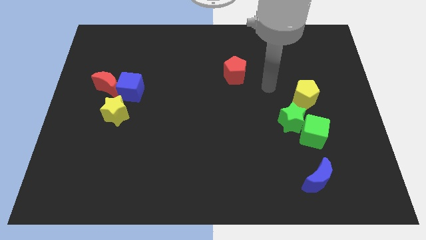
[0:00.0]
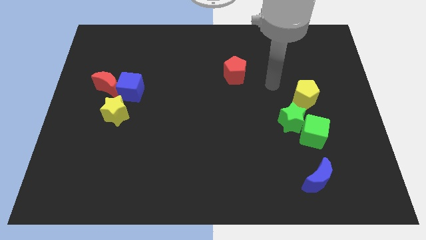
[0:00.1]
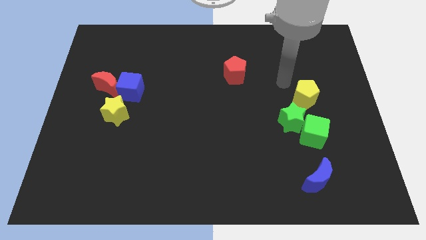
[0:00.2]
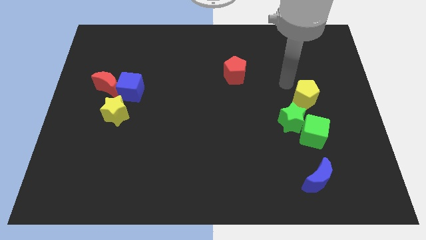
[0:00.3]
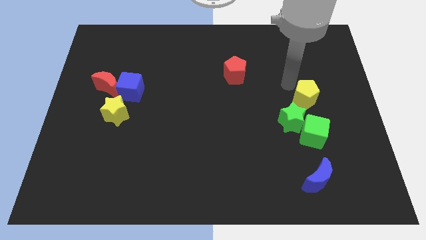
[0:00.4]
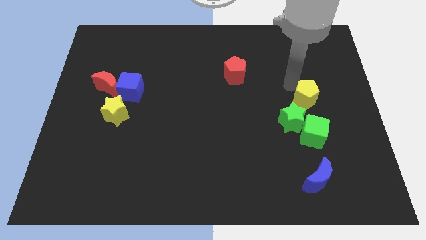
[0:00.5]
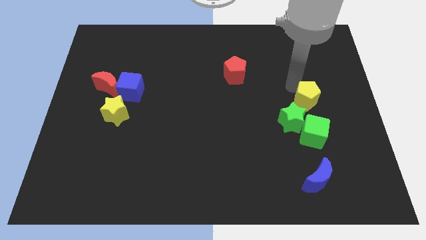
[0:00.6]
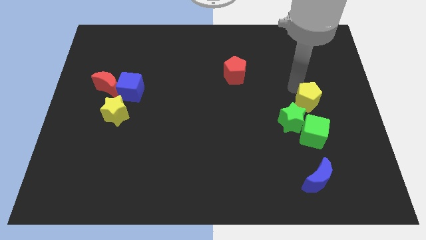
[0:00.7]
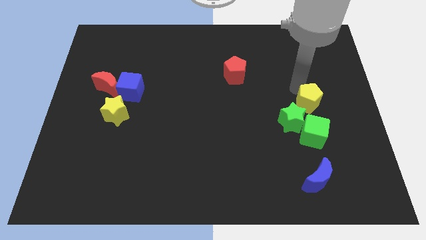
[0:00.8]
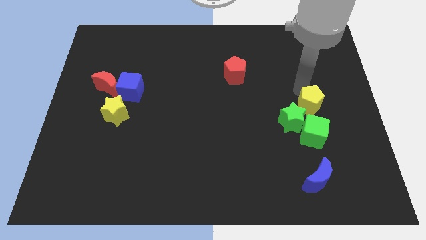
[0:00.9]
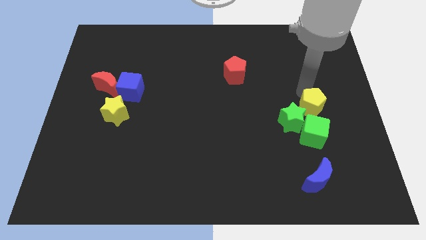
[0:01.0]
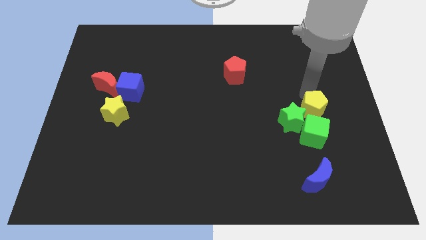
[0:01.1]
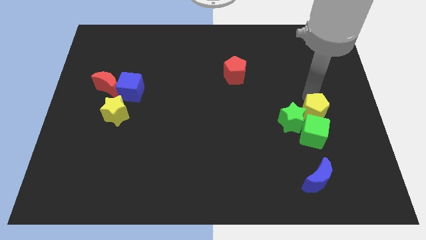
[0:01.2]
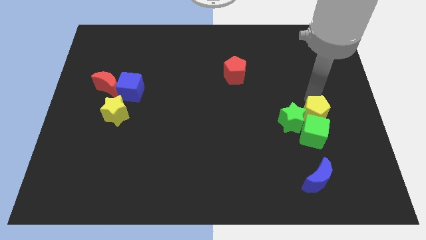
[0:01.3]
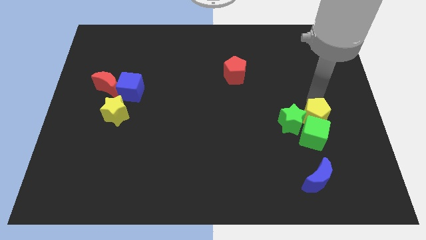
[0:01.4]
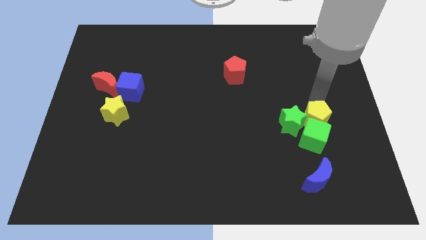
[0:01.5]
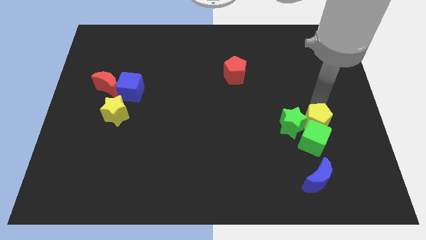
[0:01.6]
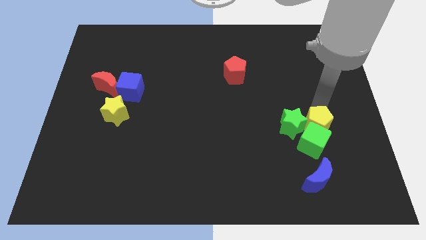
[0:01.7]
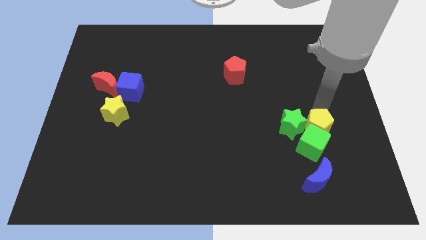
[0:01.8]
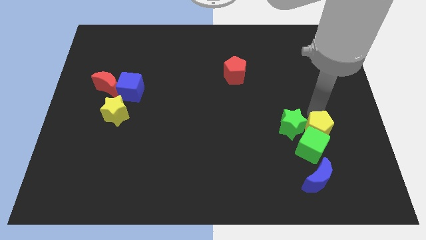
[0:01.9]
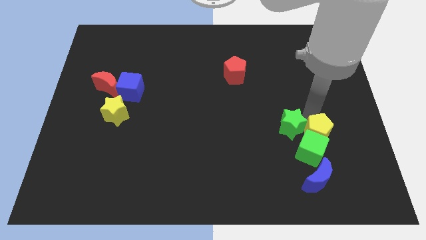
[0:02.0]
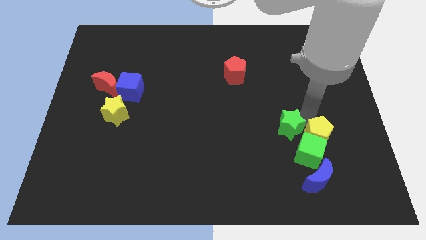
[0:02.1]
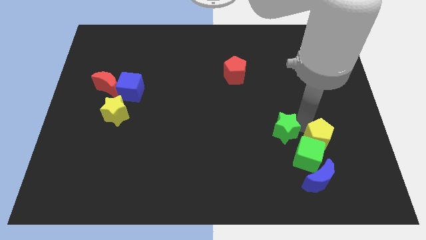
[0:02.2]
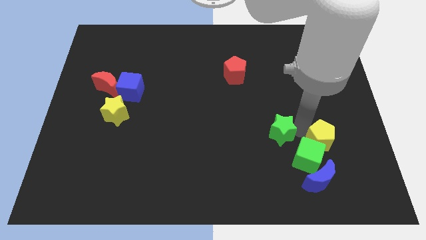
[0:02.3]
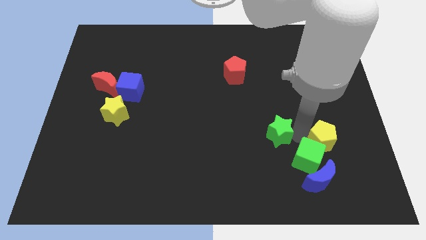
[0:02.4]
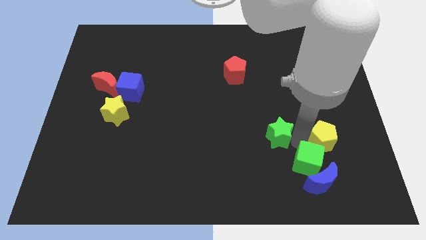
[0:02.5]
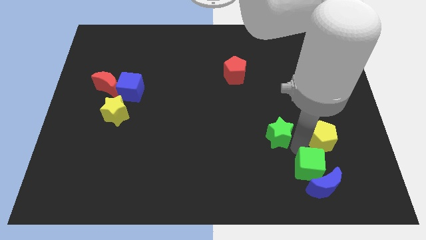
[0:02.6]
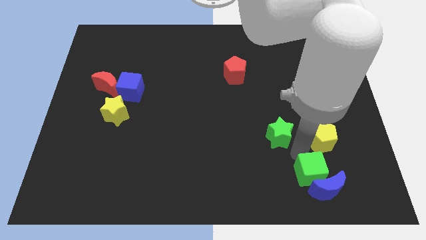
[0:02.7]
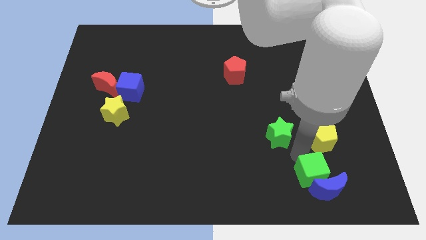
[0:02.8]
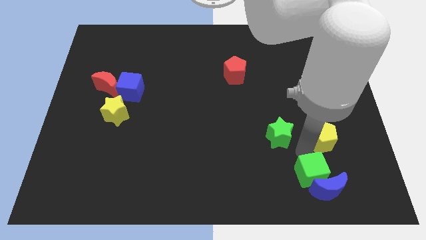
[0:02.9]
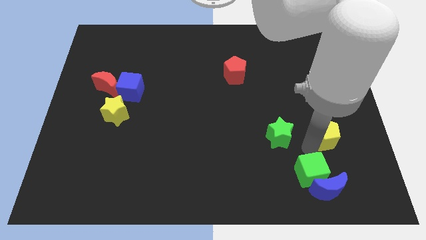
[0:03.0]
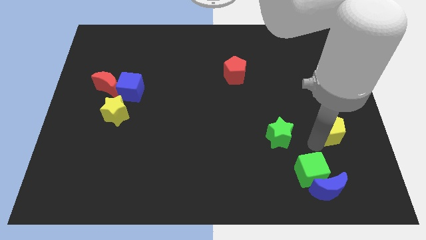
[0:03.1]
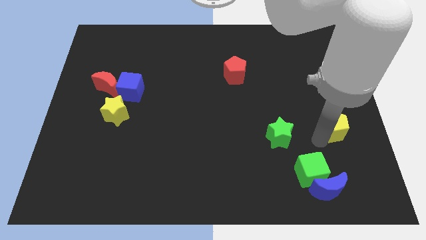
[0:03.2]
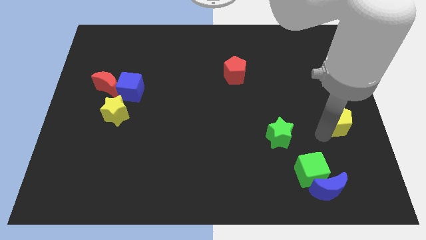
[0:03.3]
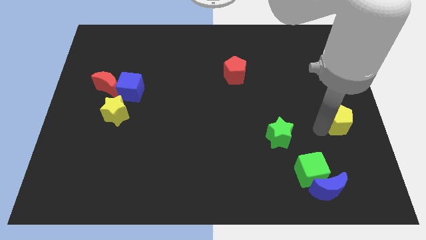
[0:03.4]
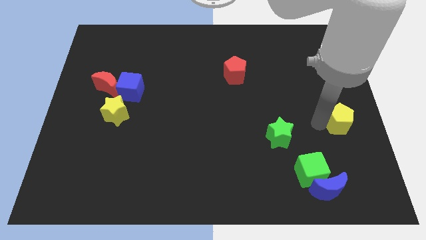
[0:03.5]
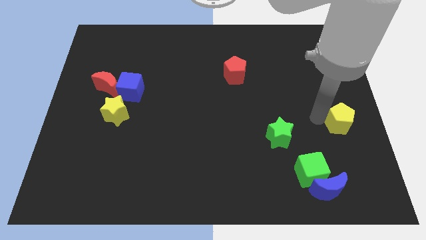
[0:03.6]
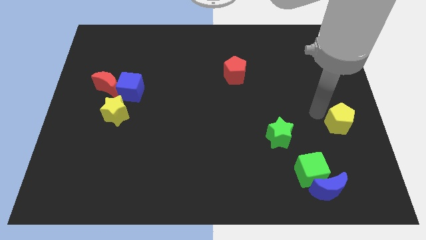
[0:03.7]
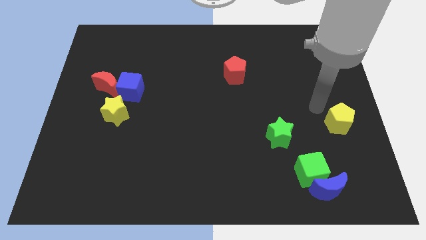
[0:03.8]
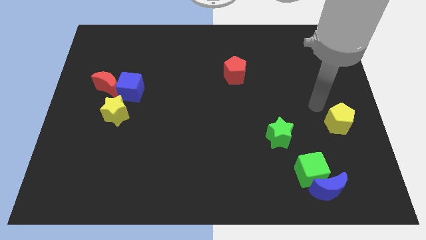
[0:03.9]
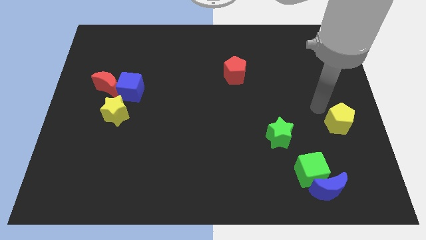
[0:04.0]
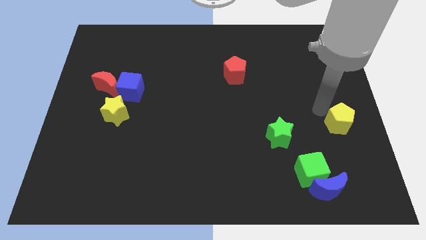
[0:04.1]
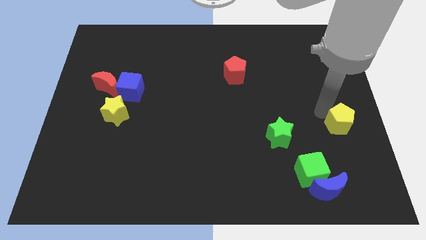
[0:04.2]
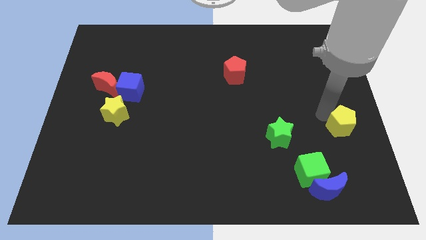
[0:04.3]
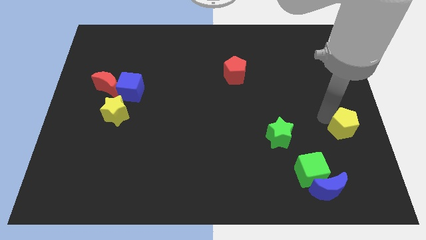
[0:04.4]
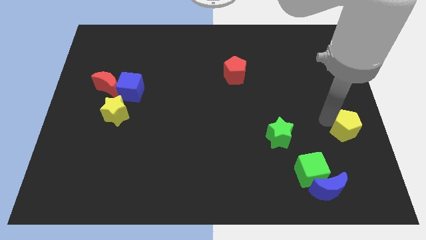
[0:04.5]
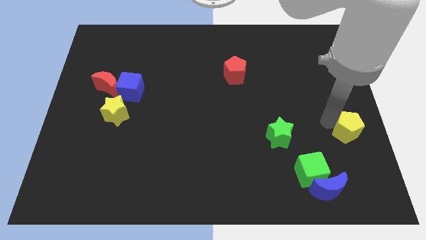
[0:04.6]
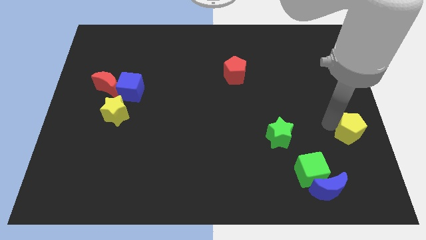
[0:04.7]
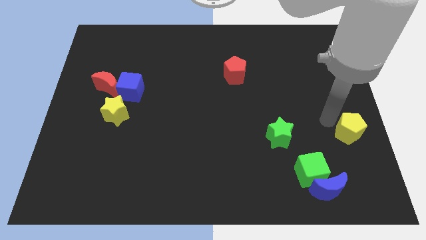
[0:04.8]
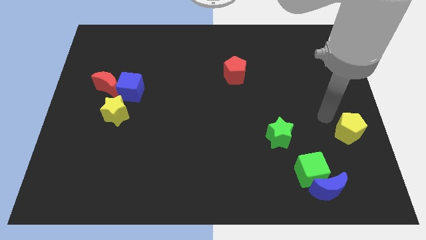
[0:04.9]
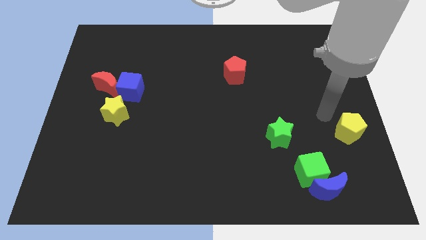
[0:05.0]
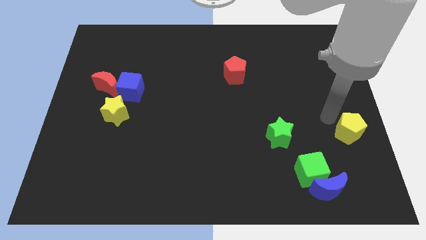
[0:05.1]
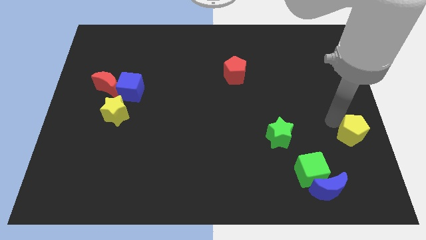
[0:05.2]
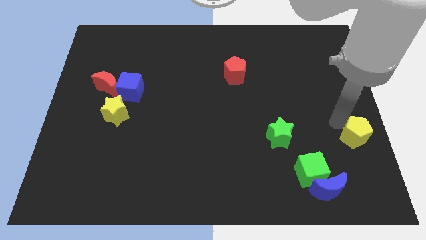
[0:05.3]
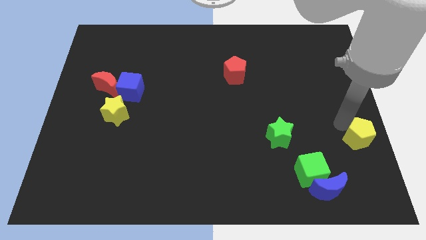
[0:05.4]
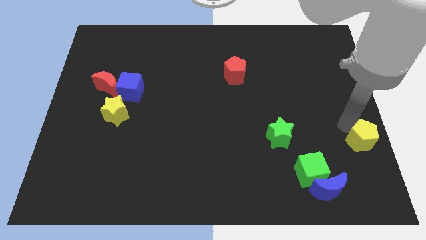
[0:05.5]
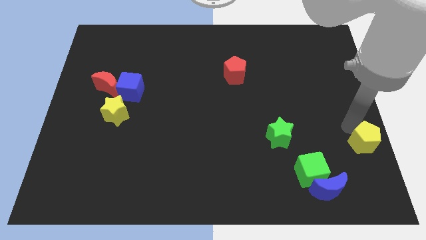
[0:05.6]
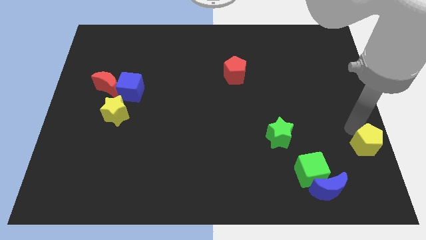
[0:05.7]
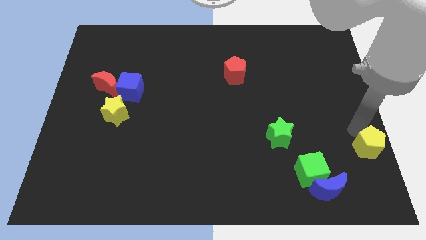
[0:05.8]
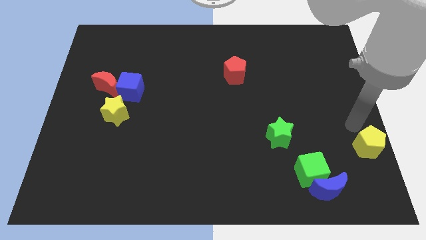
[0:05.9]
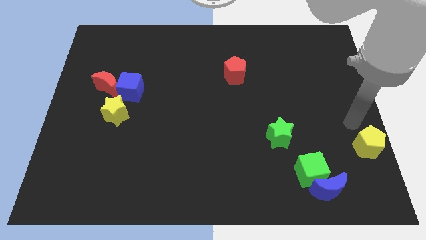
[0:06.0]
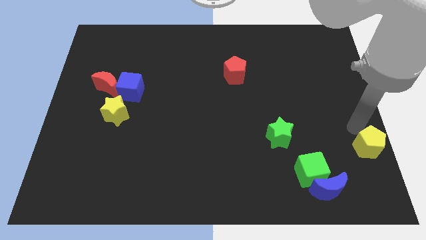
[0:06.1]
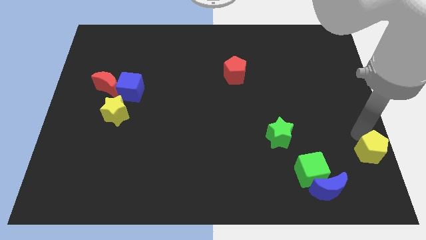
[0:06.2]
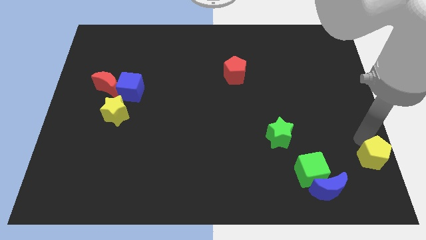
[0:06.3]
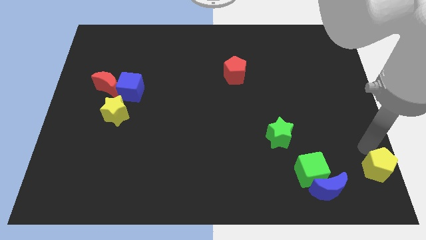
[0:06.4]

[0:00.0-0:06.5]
put the yellow pentagon to the lower right corner
